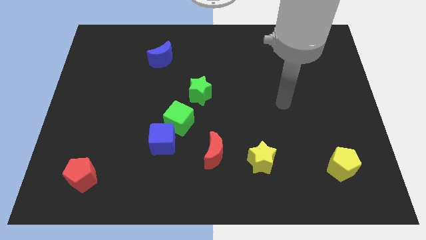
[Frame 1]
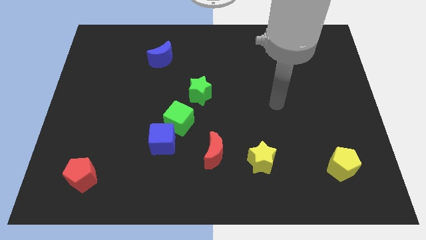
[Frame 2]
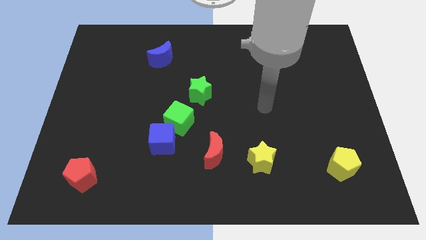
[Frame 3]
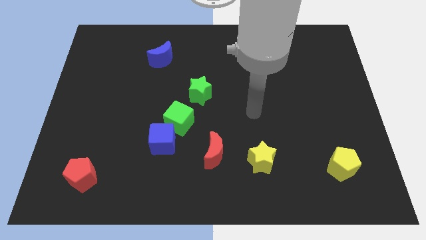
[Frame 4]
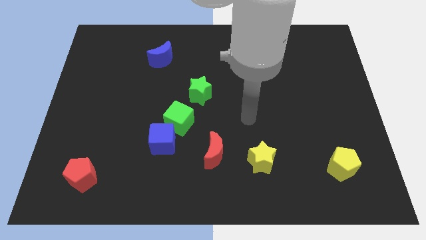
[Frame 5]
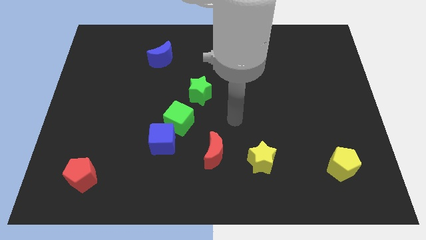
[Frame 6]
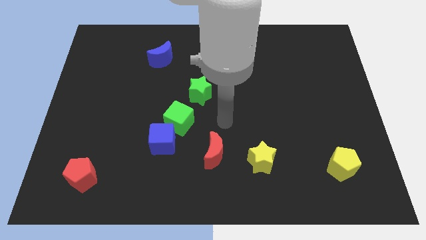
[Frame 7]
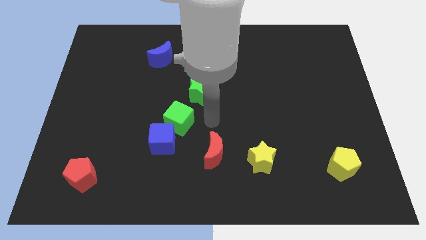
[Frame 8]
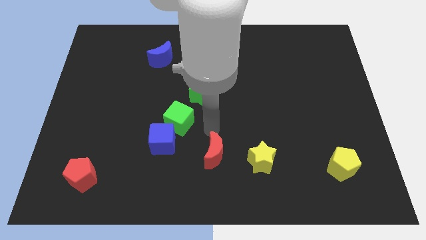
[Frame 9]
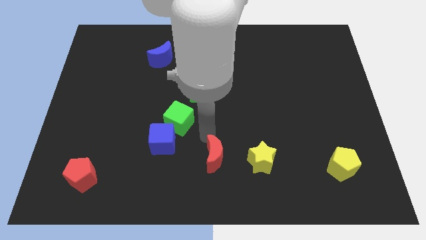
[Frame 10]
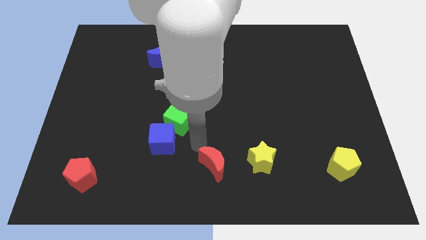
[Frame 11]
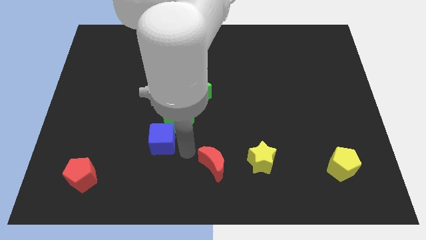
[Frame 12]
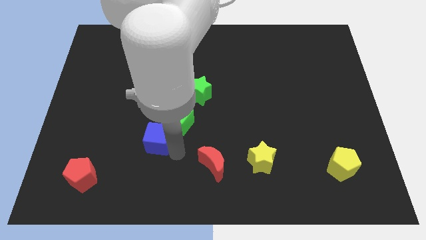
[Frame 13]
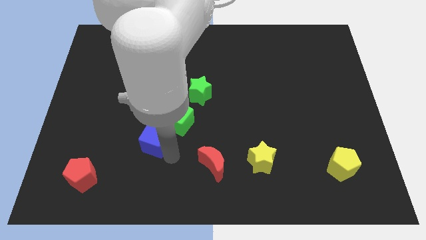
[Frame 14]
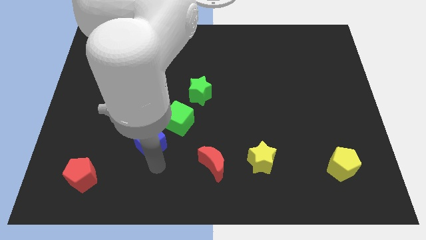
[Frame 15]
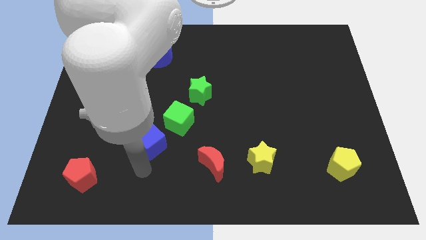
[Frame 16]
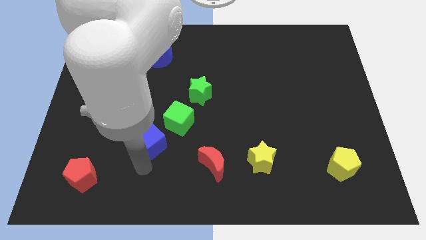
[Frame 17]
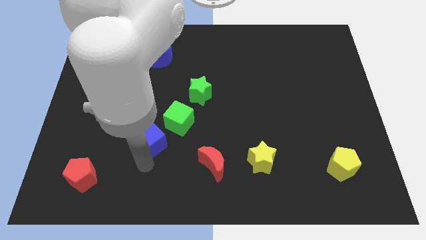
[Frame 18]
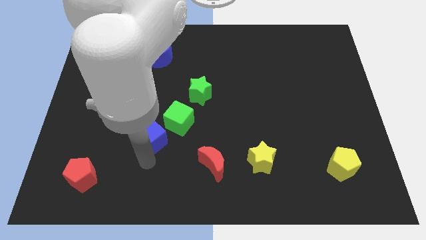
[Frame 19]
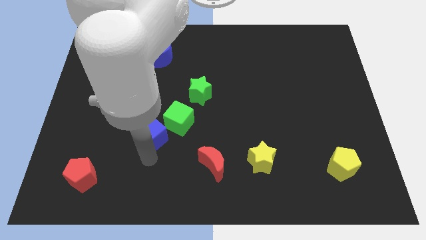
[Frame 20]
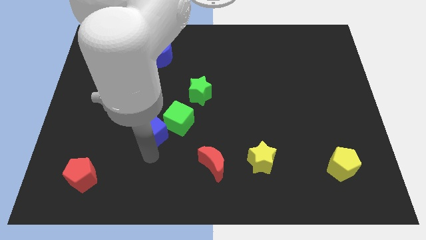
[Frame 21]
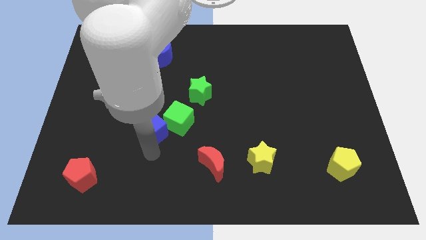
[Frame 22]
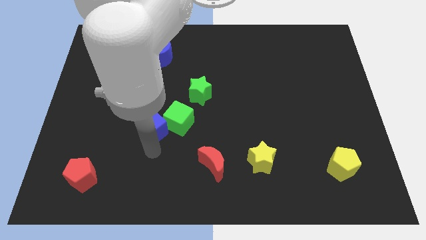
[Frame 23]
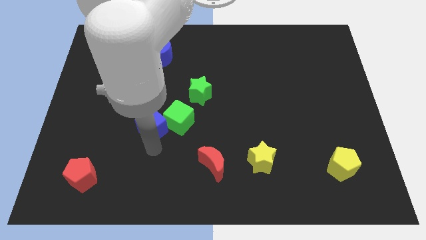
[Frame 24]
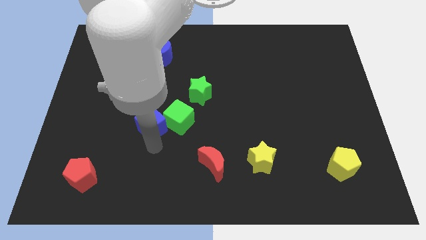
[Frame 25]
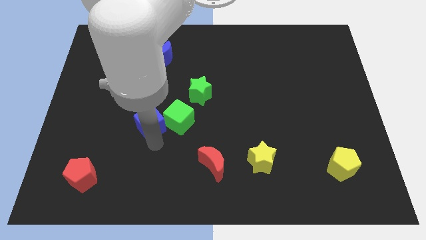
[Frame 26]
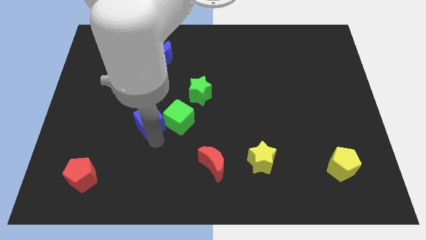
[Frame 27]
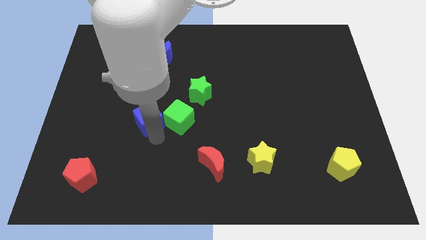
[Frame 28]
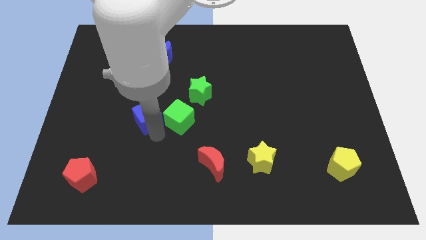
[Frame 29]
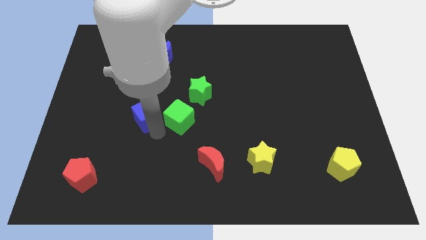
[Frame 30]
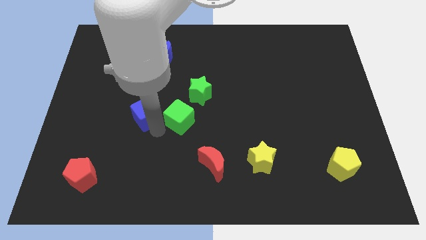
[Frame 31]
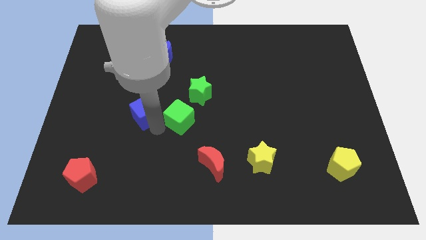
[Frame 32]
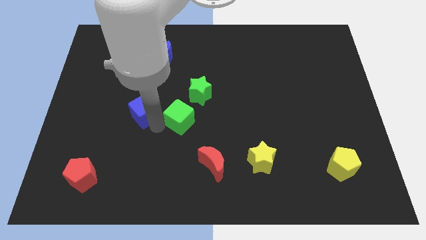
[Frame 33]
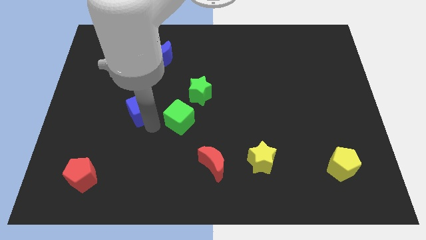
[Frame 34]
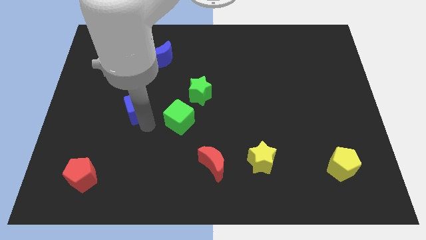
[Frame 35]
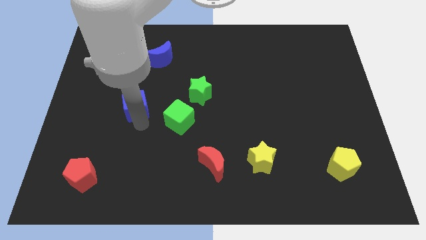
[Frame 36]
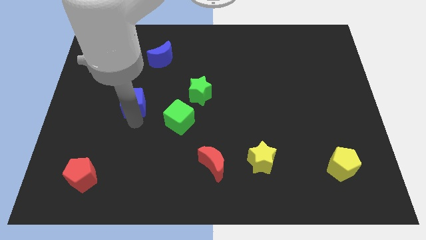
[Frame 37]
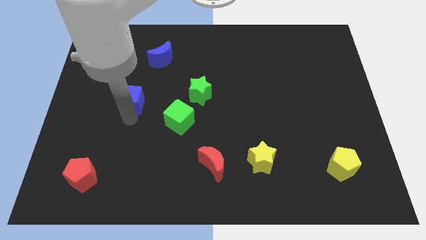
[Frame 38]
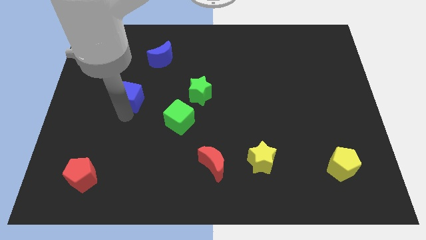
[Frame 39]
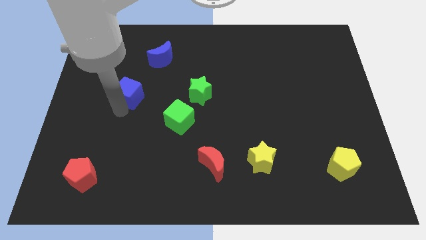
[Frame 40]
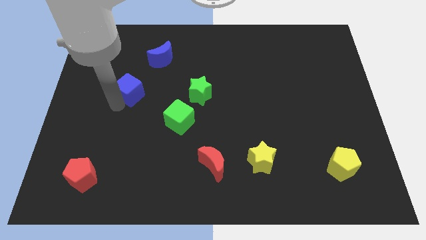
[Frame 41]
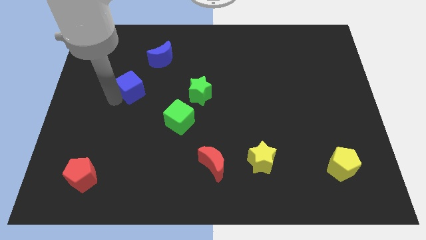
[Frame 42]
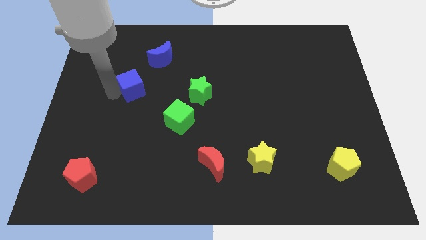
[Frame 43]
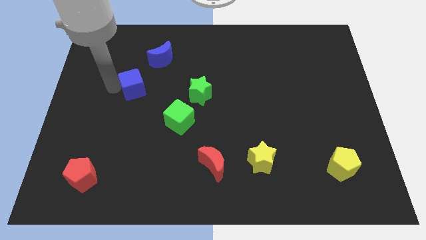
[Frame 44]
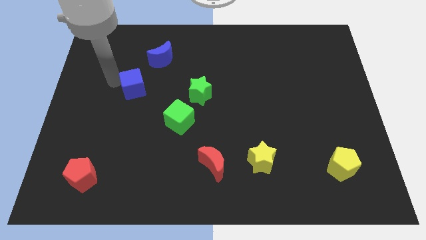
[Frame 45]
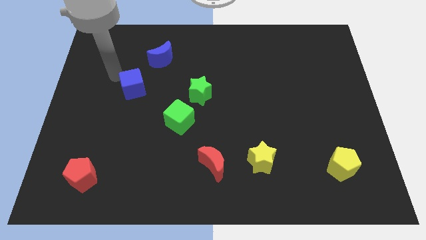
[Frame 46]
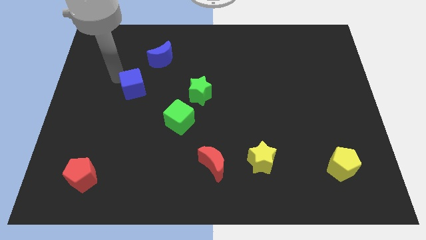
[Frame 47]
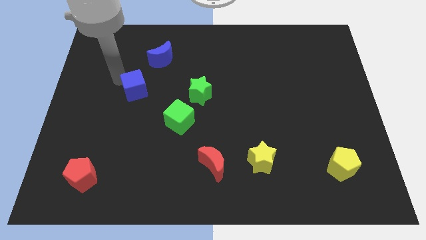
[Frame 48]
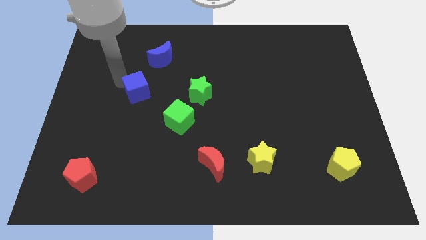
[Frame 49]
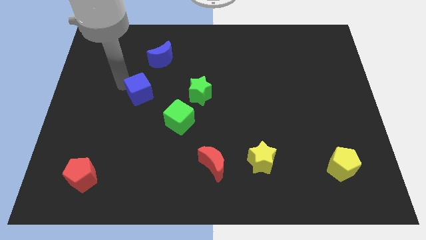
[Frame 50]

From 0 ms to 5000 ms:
move the blue cube below the blue moon

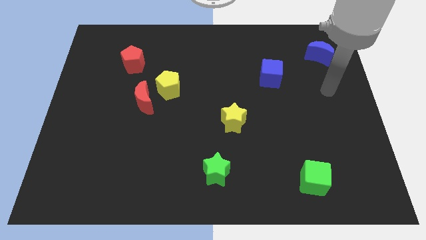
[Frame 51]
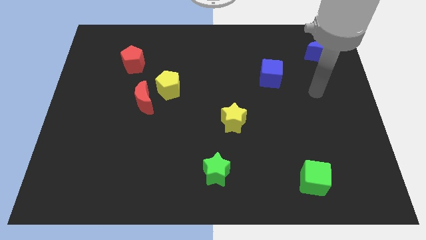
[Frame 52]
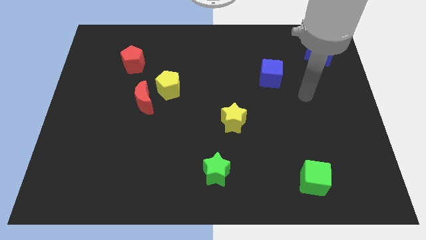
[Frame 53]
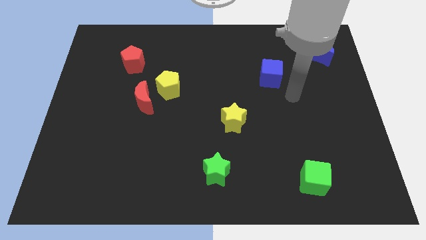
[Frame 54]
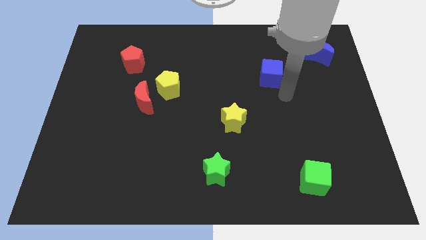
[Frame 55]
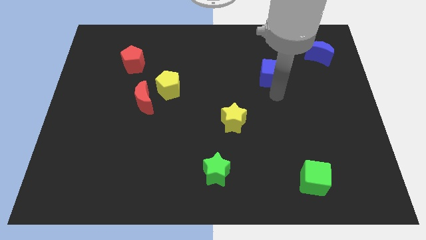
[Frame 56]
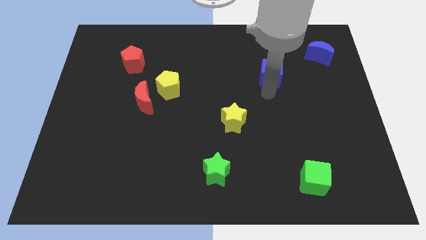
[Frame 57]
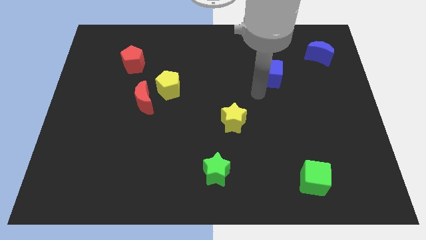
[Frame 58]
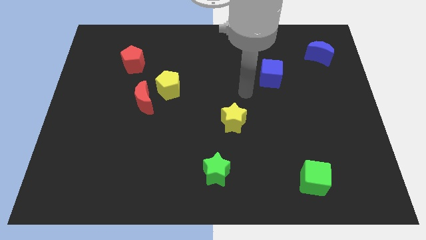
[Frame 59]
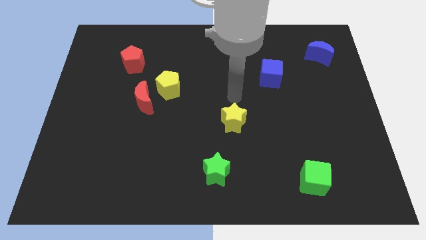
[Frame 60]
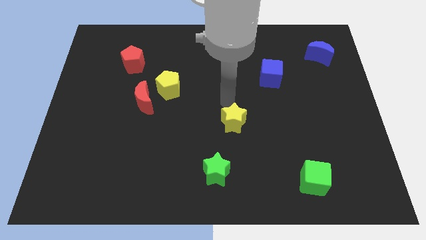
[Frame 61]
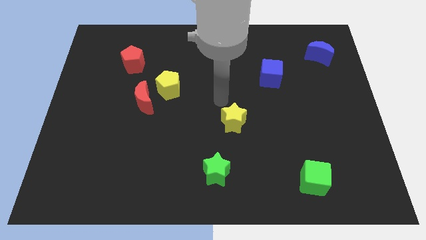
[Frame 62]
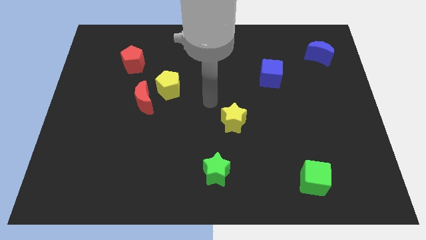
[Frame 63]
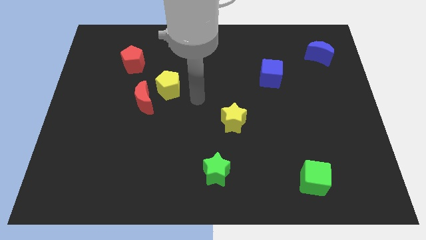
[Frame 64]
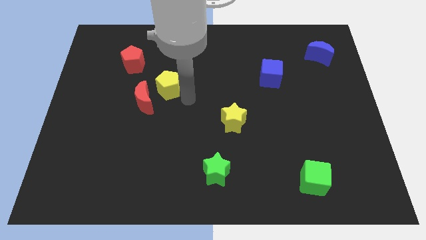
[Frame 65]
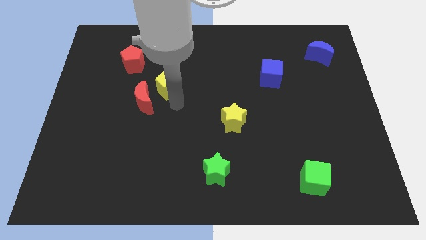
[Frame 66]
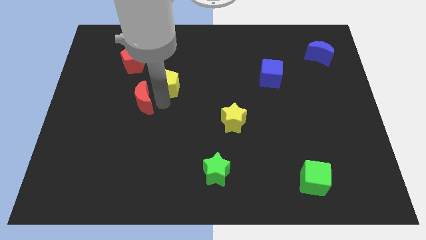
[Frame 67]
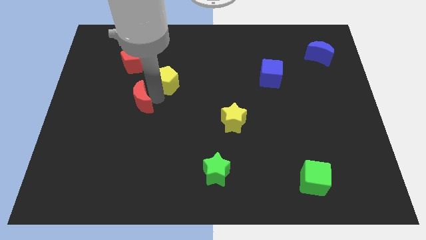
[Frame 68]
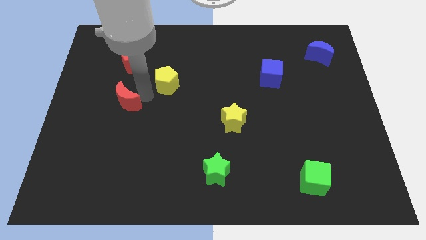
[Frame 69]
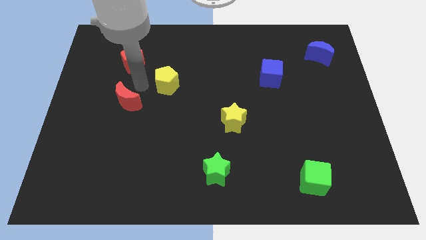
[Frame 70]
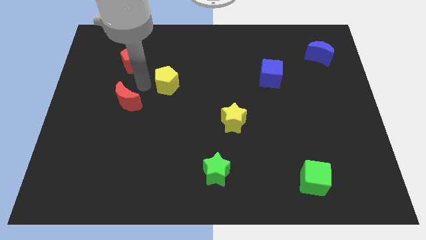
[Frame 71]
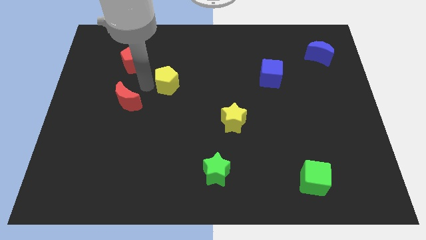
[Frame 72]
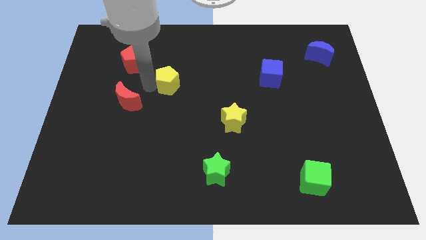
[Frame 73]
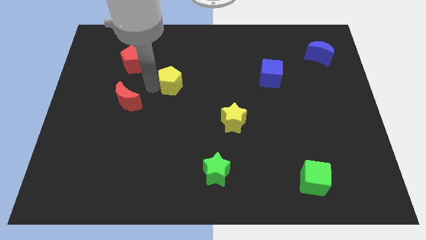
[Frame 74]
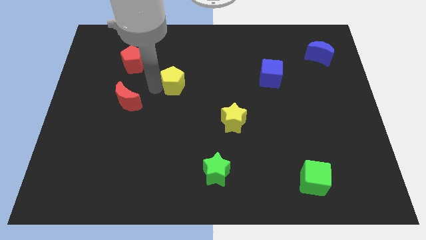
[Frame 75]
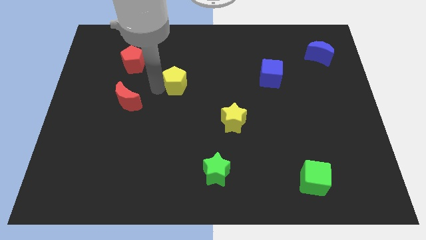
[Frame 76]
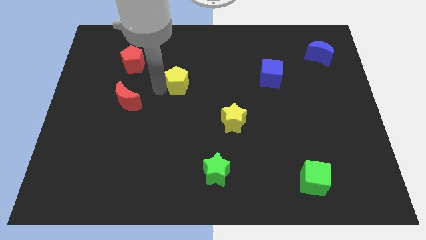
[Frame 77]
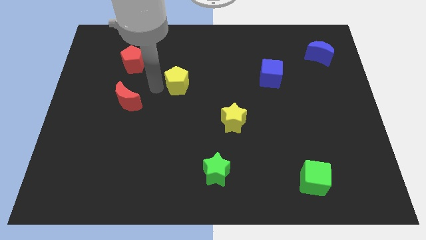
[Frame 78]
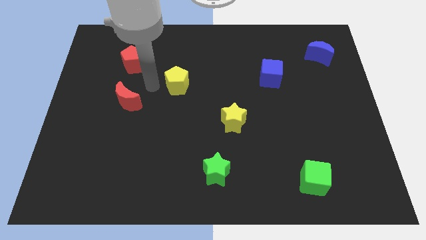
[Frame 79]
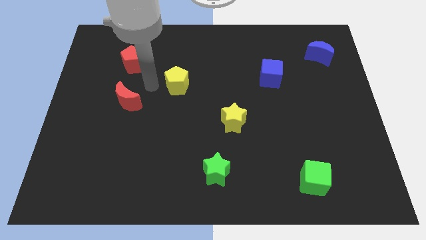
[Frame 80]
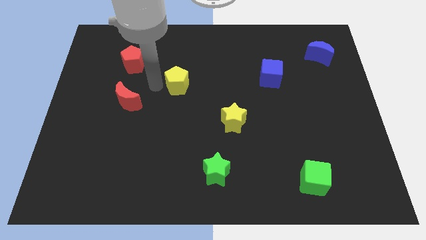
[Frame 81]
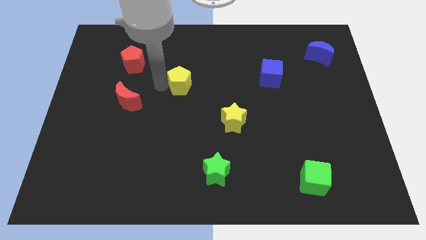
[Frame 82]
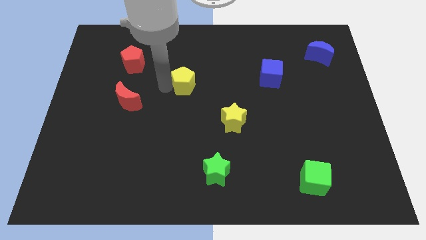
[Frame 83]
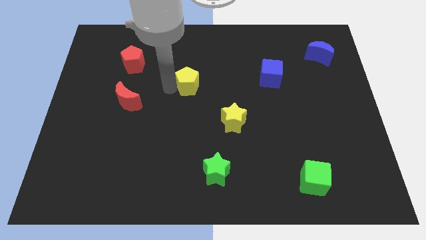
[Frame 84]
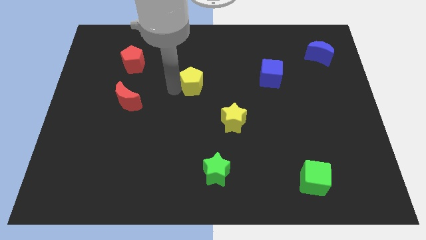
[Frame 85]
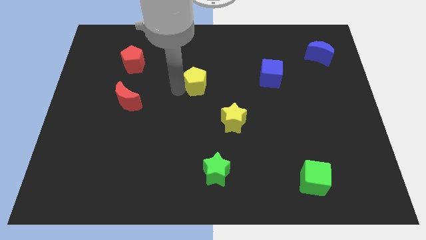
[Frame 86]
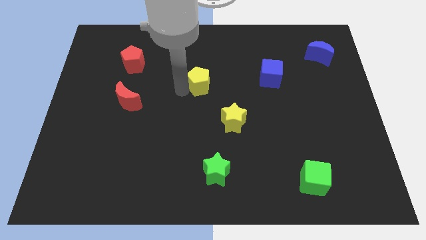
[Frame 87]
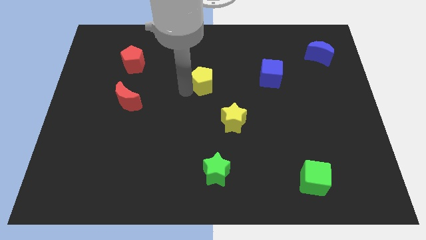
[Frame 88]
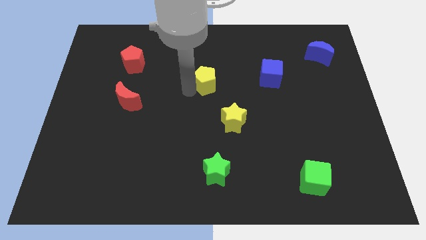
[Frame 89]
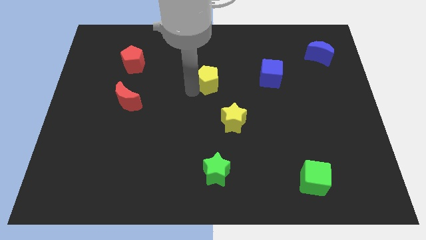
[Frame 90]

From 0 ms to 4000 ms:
push the yellow pentagon just left of the blue cube
